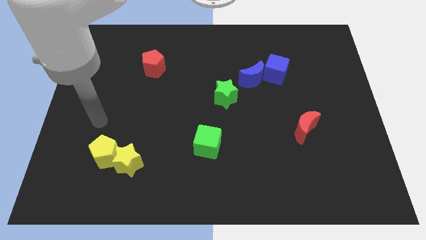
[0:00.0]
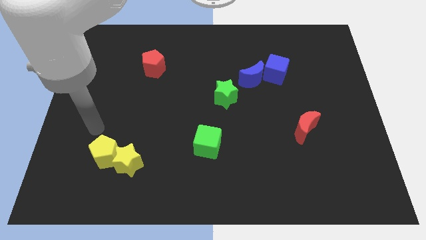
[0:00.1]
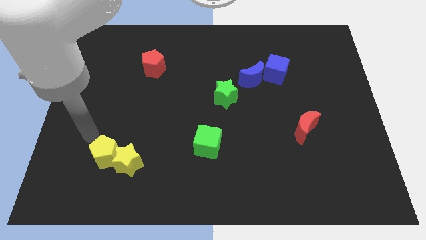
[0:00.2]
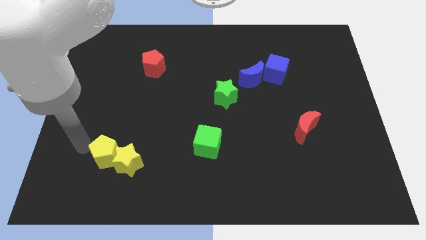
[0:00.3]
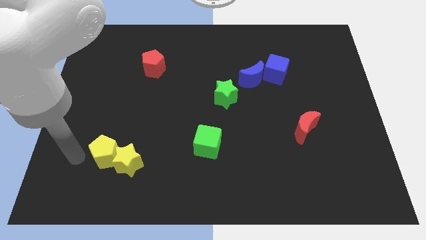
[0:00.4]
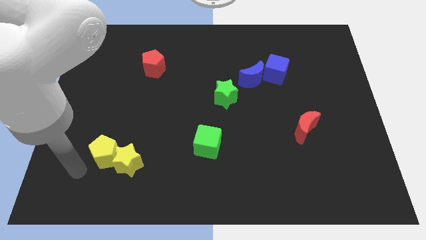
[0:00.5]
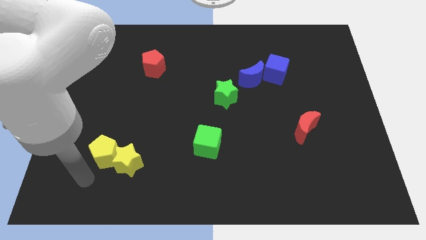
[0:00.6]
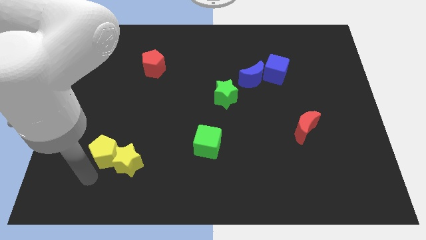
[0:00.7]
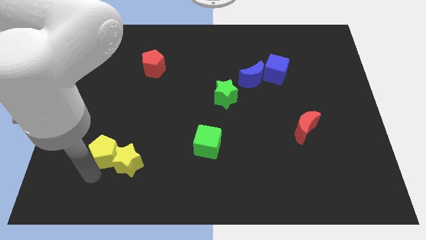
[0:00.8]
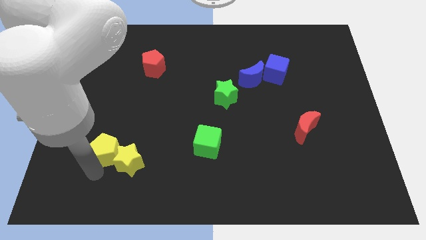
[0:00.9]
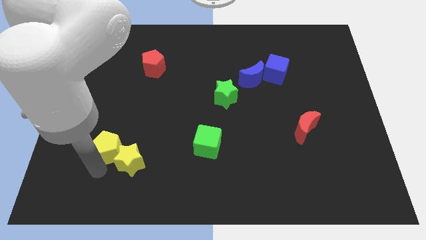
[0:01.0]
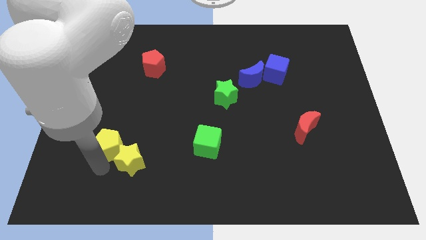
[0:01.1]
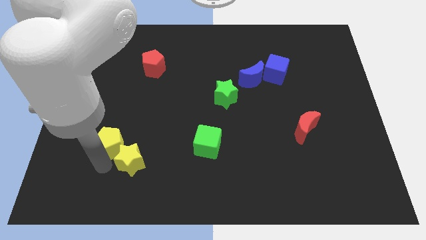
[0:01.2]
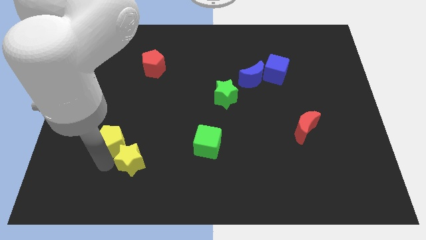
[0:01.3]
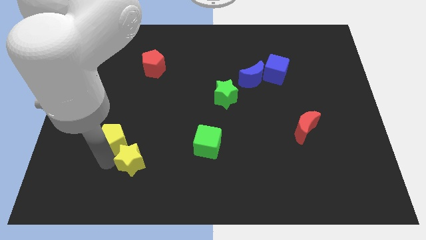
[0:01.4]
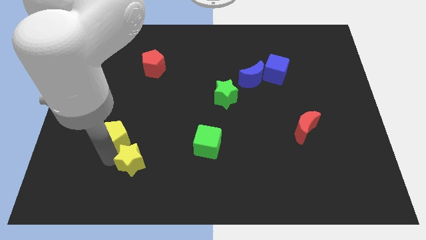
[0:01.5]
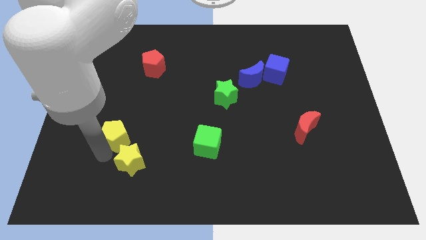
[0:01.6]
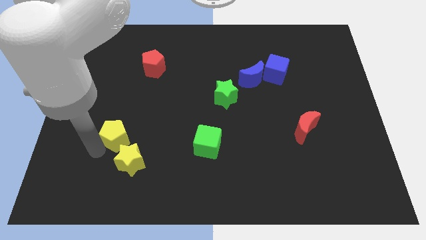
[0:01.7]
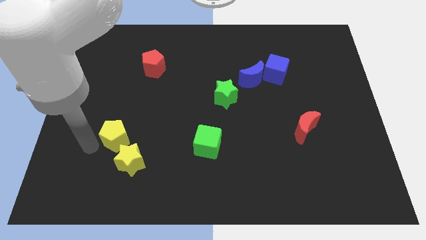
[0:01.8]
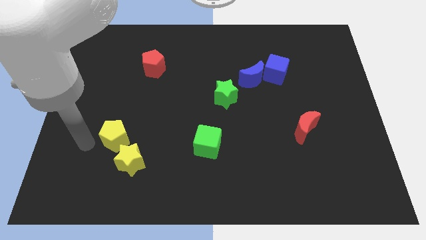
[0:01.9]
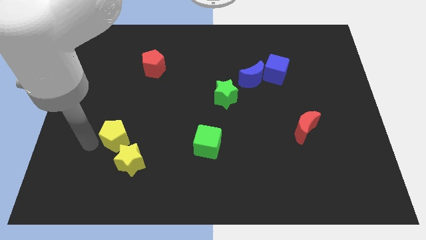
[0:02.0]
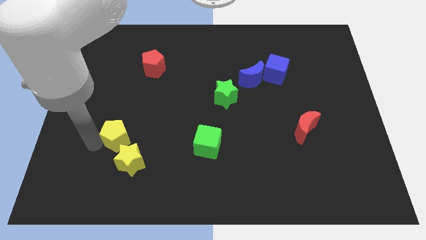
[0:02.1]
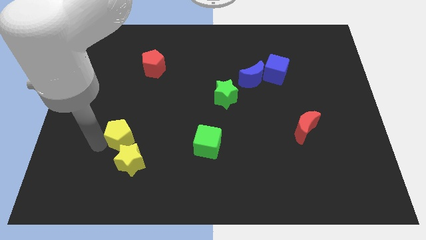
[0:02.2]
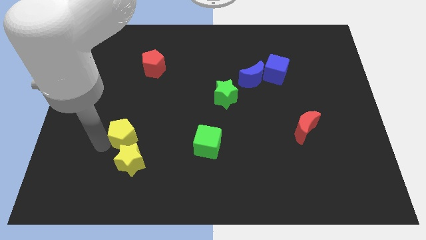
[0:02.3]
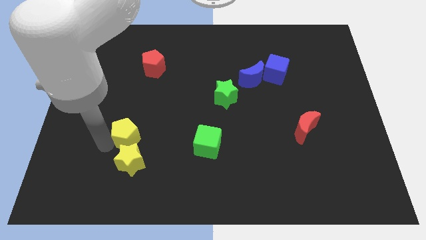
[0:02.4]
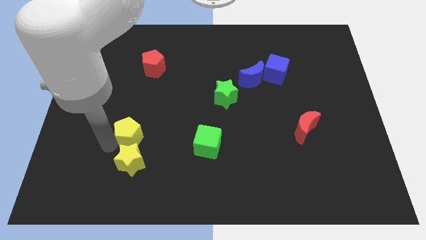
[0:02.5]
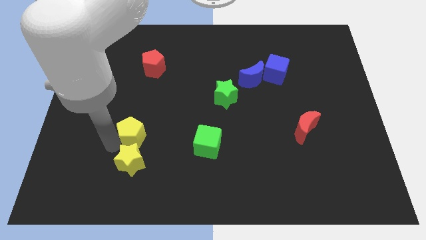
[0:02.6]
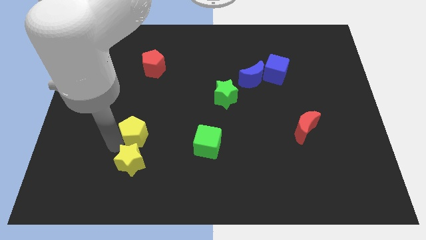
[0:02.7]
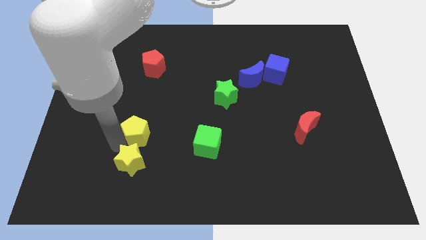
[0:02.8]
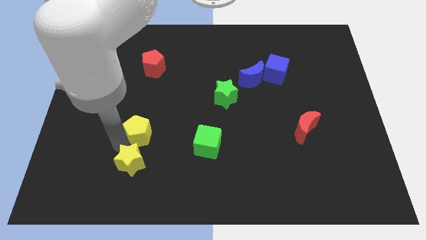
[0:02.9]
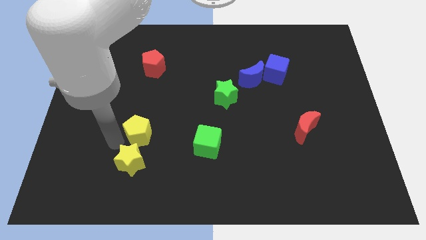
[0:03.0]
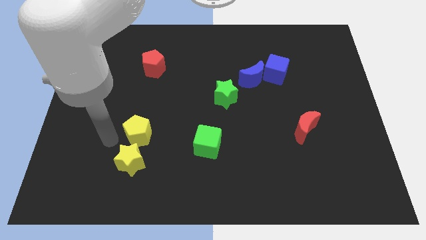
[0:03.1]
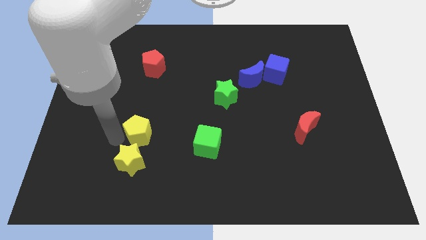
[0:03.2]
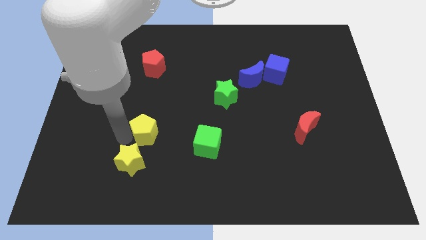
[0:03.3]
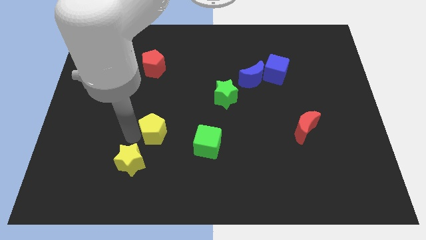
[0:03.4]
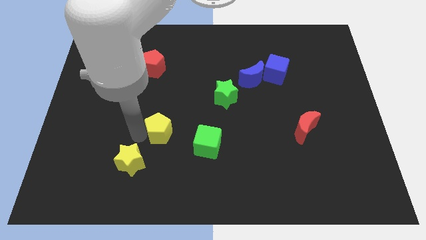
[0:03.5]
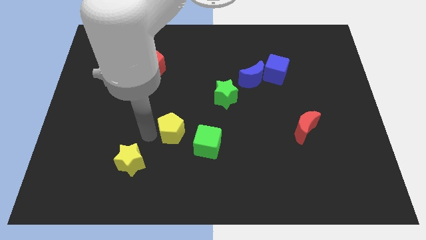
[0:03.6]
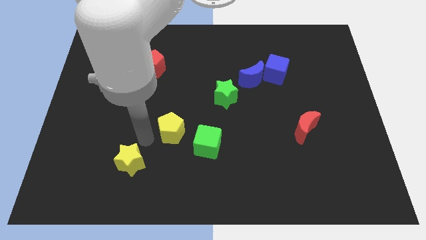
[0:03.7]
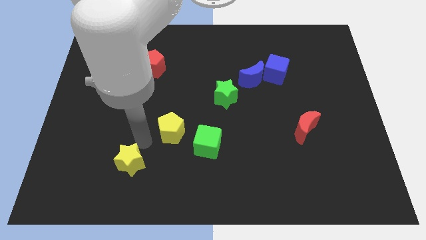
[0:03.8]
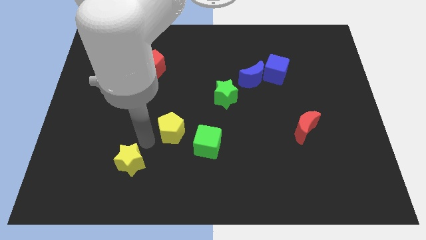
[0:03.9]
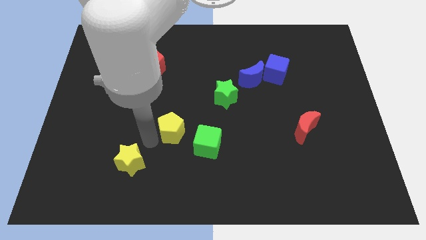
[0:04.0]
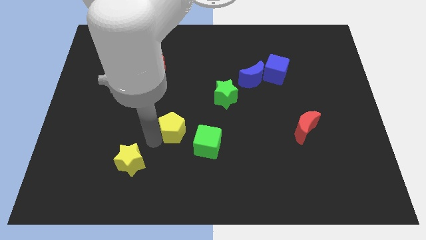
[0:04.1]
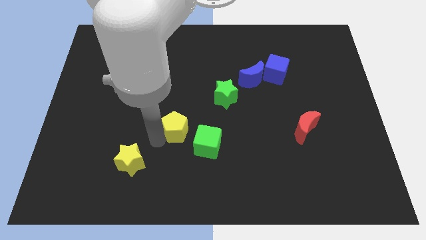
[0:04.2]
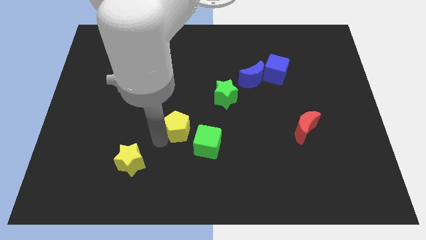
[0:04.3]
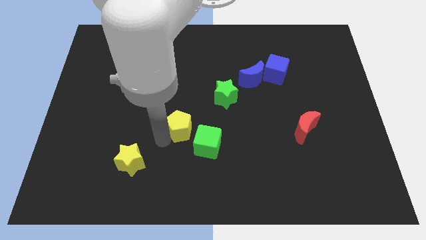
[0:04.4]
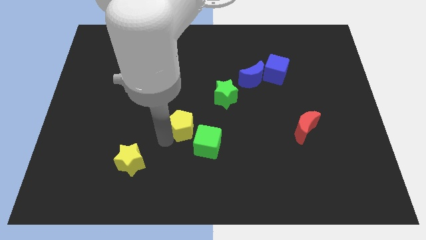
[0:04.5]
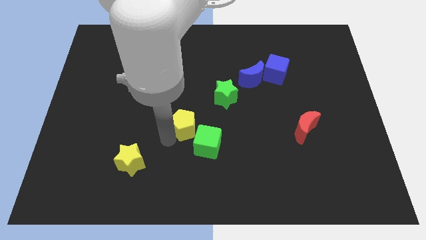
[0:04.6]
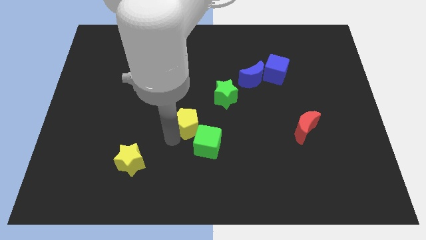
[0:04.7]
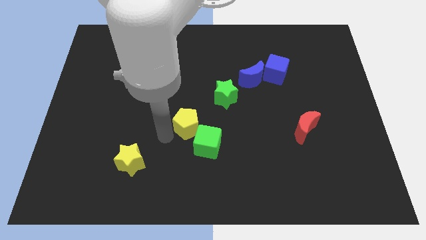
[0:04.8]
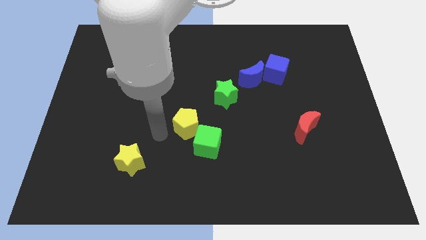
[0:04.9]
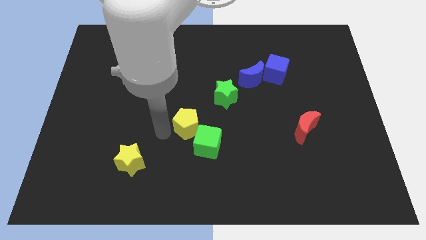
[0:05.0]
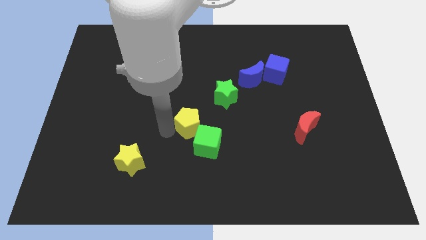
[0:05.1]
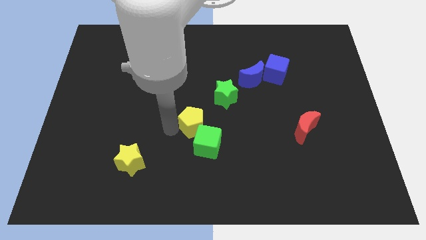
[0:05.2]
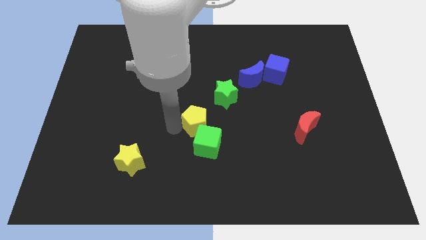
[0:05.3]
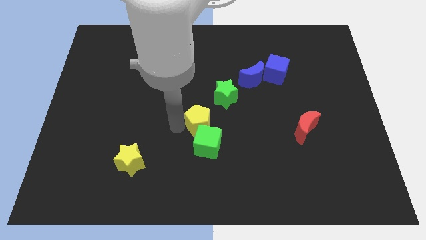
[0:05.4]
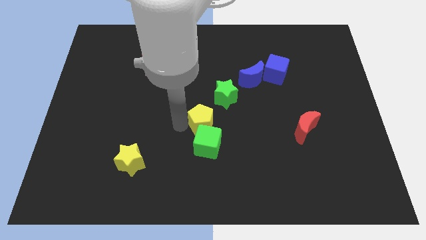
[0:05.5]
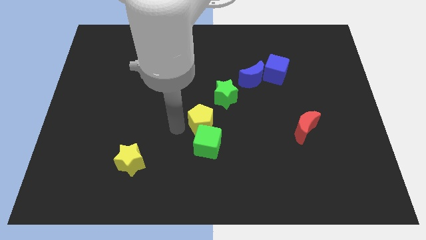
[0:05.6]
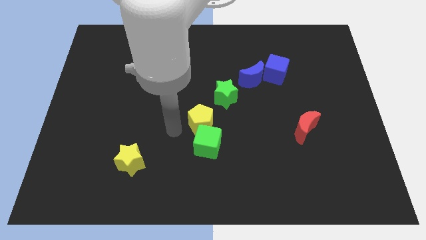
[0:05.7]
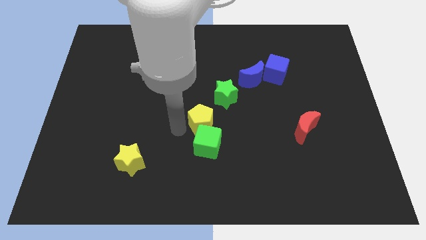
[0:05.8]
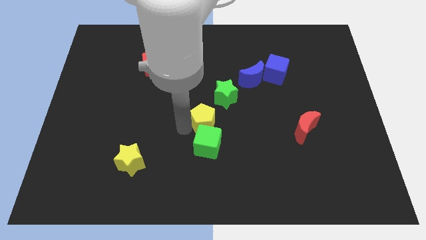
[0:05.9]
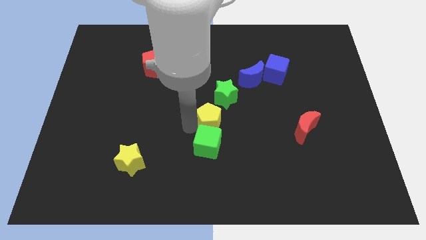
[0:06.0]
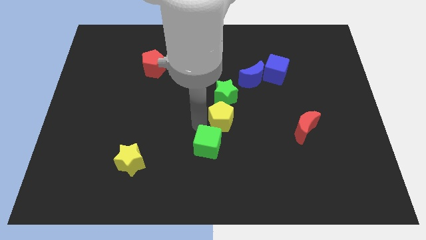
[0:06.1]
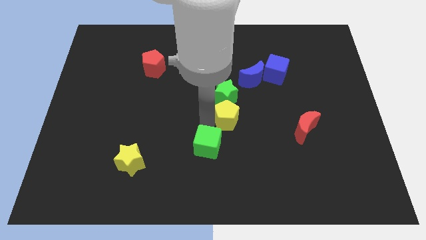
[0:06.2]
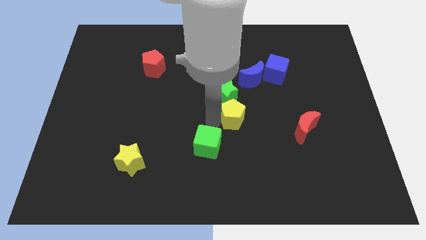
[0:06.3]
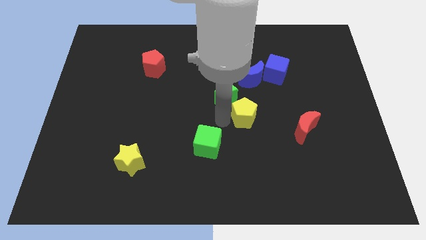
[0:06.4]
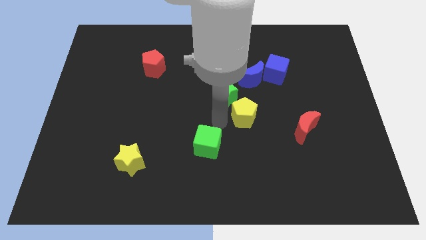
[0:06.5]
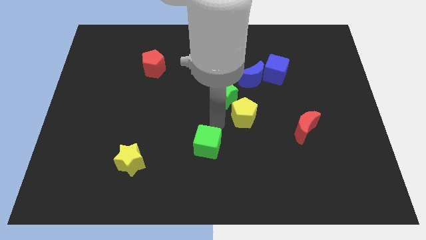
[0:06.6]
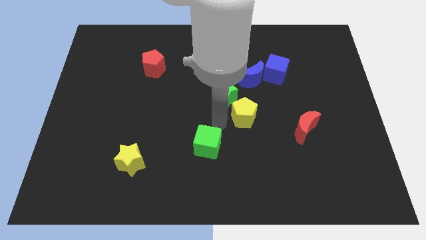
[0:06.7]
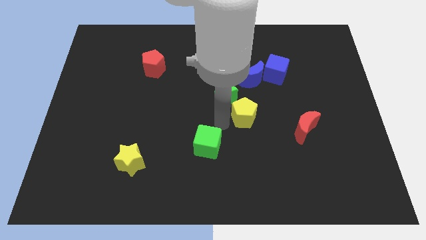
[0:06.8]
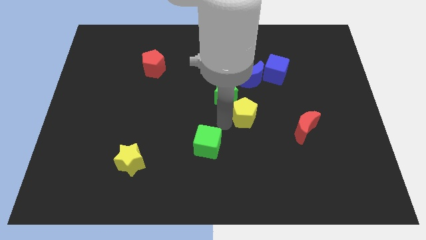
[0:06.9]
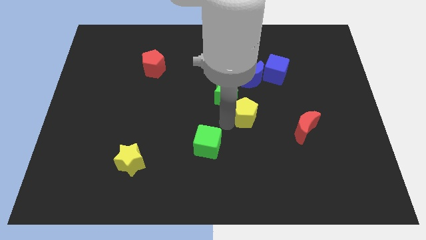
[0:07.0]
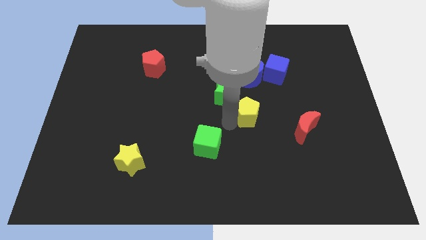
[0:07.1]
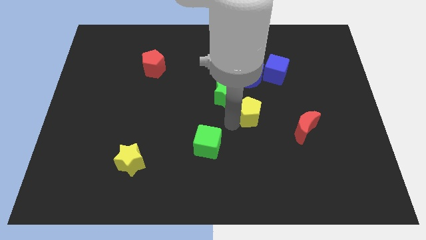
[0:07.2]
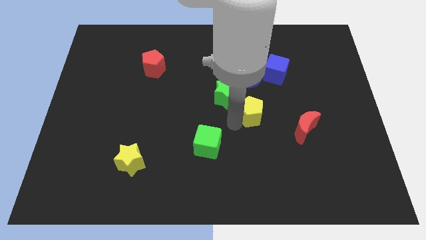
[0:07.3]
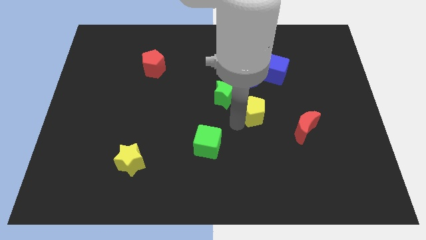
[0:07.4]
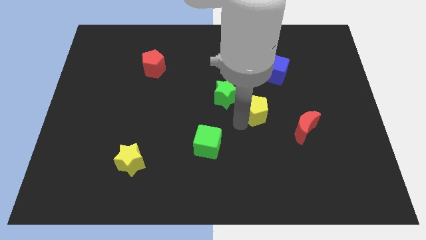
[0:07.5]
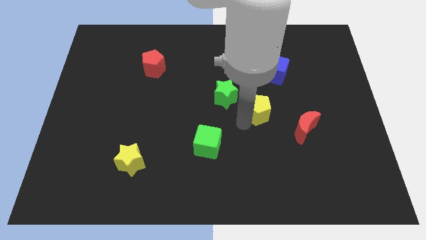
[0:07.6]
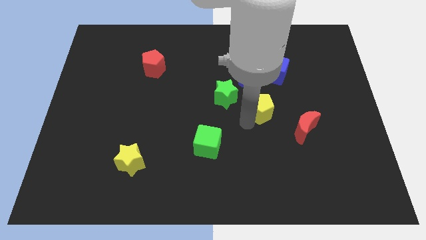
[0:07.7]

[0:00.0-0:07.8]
put the yellow pentagon to the bottom of the blue cube

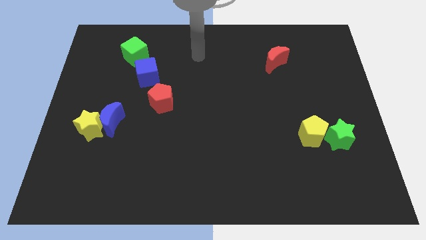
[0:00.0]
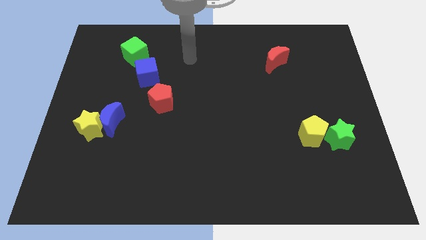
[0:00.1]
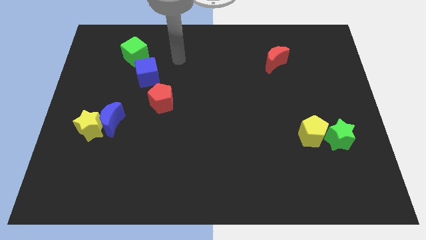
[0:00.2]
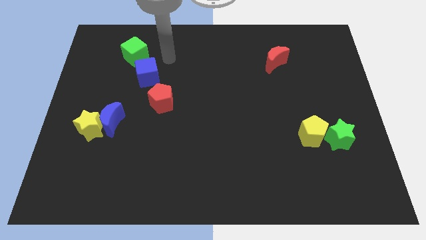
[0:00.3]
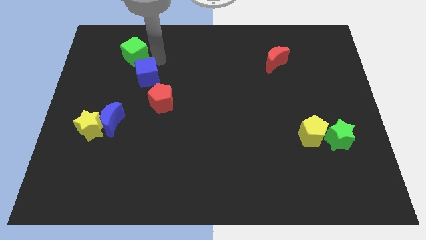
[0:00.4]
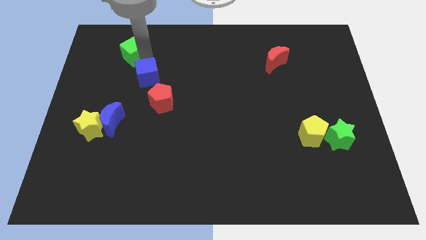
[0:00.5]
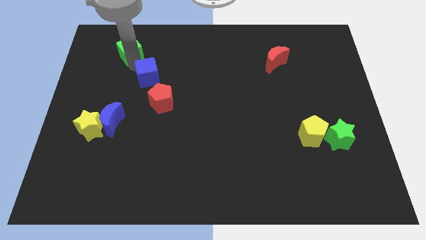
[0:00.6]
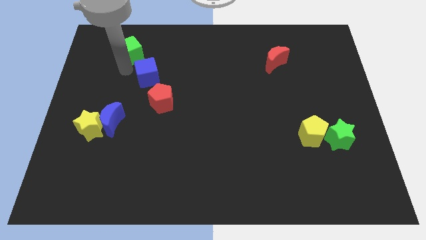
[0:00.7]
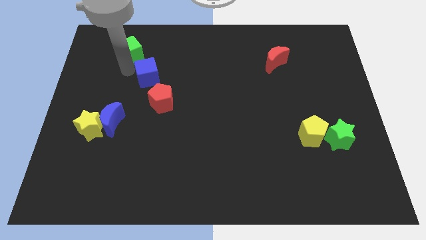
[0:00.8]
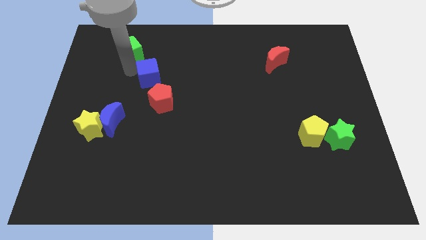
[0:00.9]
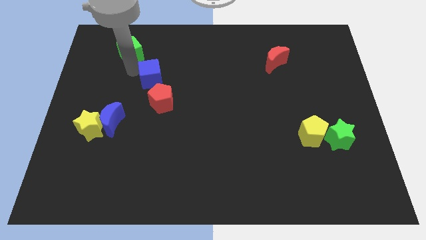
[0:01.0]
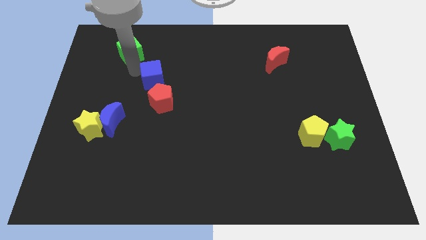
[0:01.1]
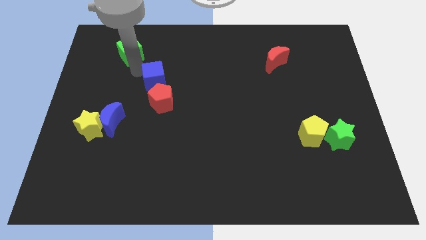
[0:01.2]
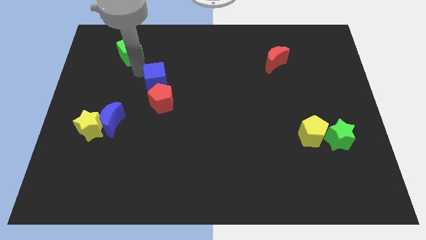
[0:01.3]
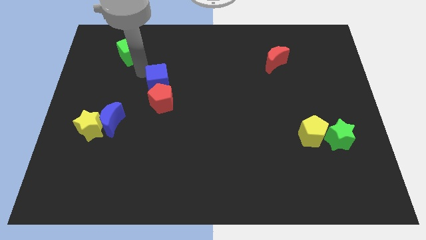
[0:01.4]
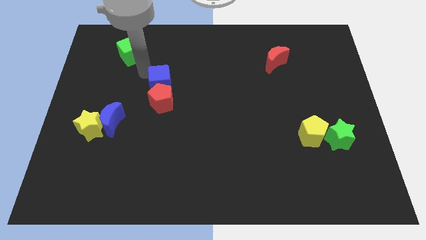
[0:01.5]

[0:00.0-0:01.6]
put the blue cube to the top right of the red pentagon
